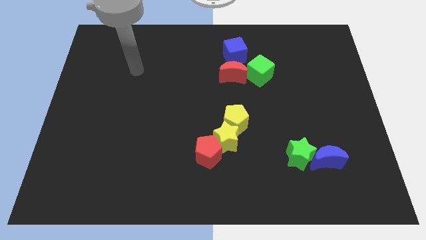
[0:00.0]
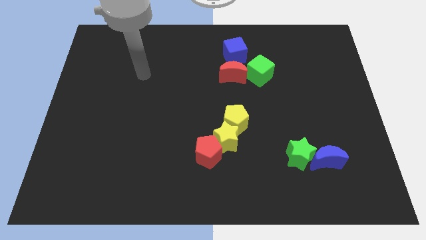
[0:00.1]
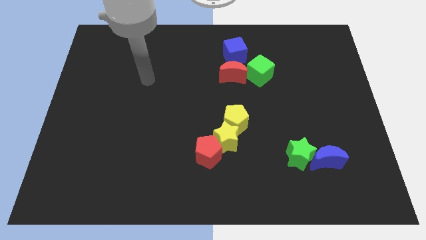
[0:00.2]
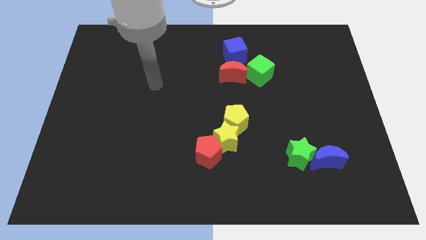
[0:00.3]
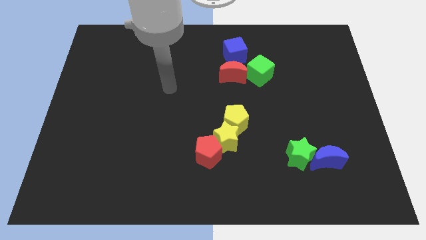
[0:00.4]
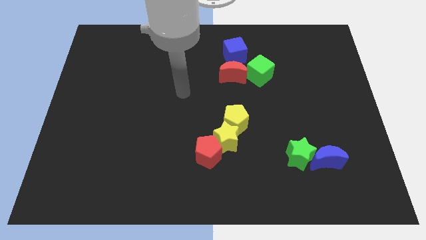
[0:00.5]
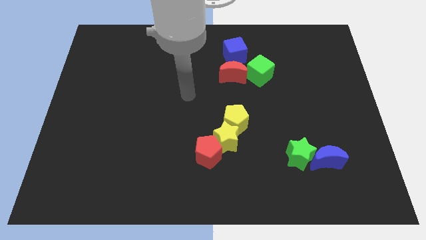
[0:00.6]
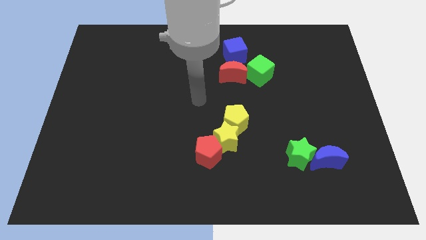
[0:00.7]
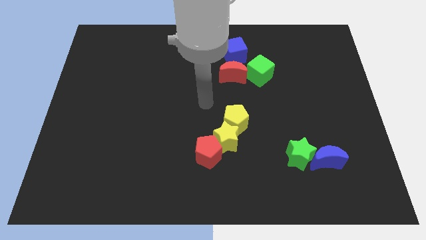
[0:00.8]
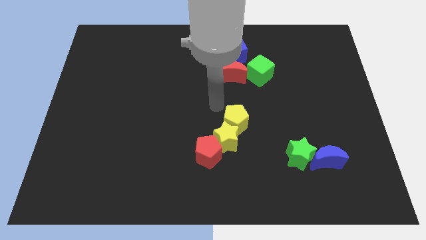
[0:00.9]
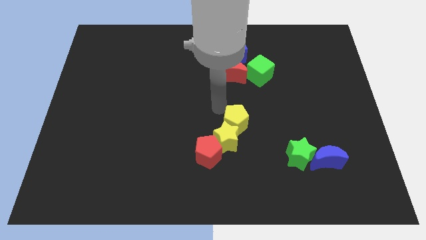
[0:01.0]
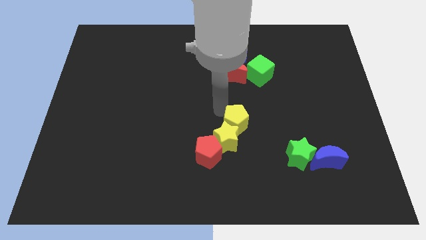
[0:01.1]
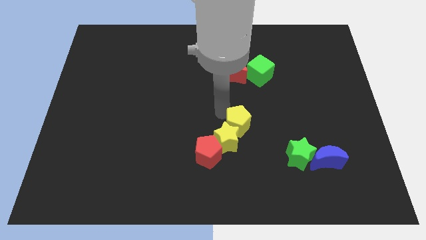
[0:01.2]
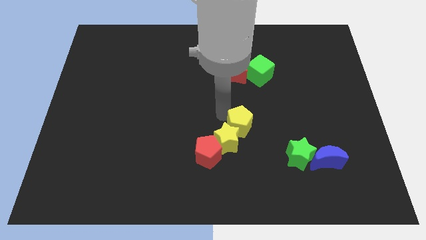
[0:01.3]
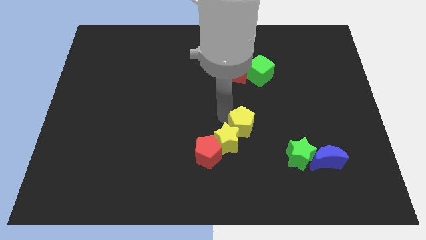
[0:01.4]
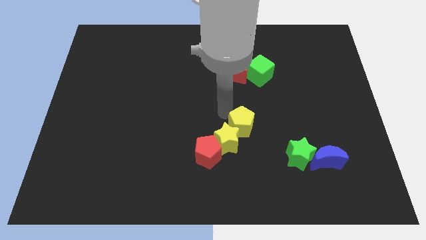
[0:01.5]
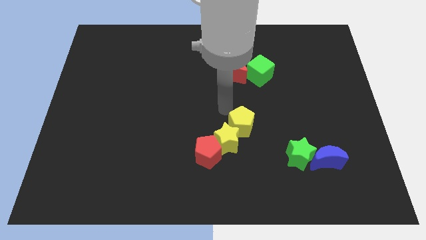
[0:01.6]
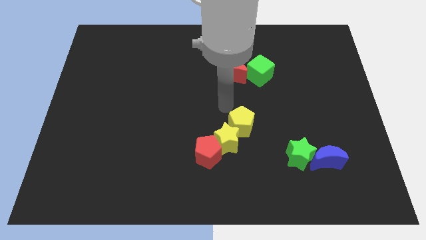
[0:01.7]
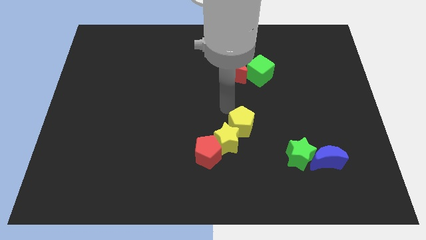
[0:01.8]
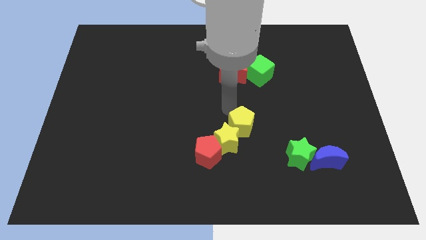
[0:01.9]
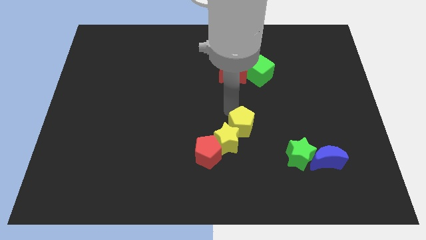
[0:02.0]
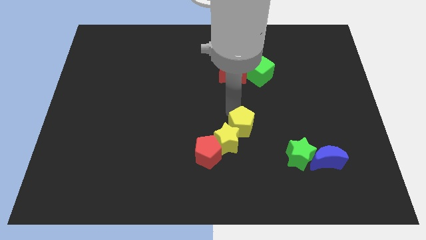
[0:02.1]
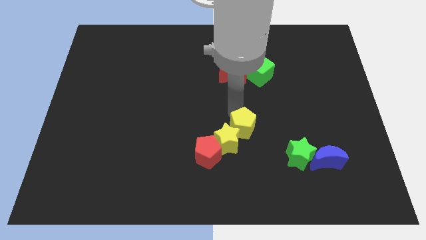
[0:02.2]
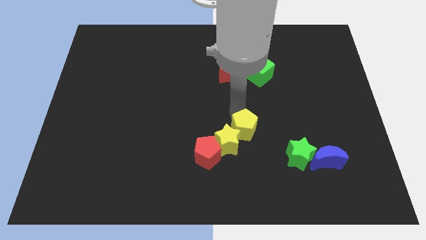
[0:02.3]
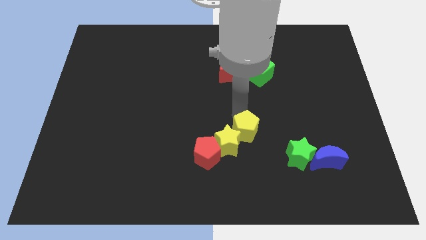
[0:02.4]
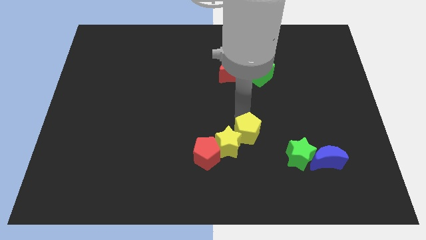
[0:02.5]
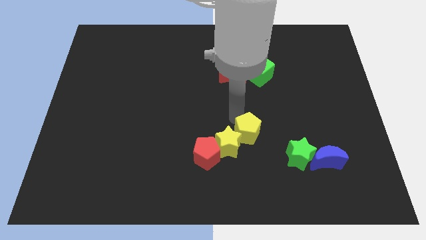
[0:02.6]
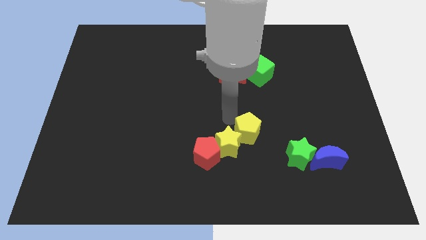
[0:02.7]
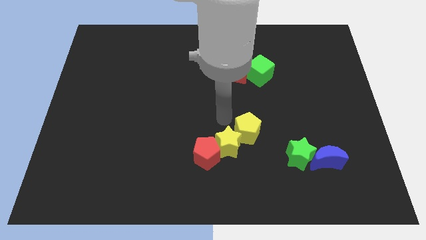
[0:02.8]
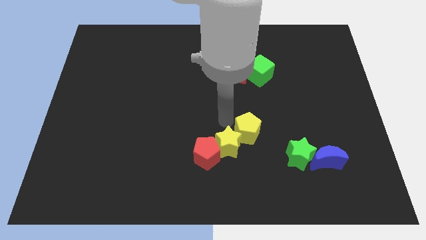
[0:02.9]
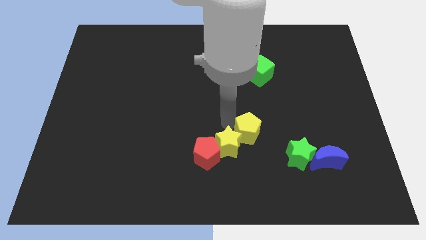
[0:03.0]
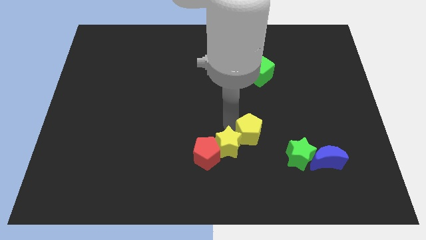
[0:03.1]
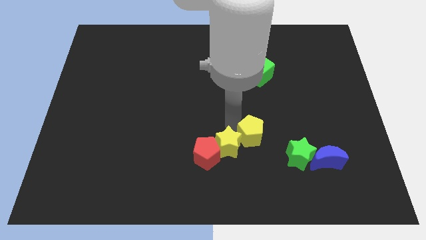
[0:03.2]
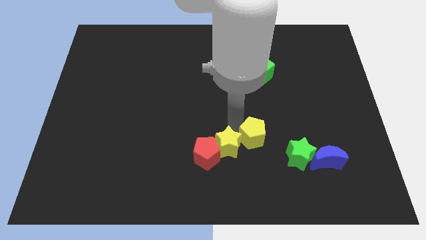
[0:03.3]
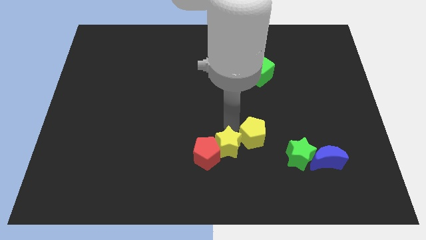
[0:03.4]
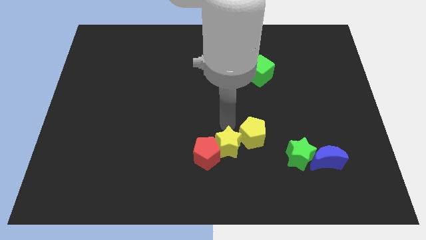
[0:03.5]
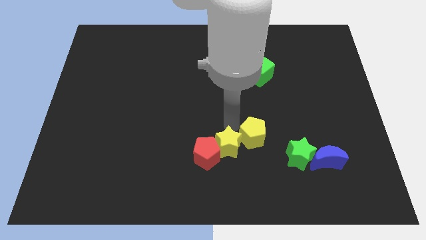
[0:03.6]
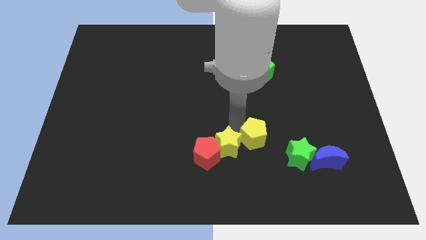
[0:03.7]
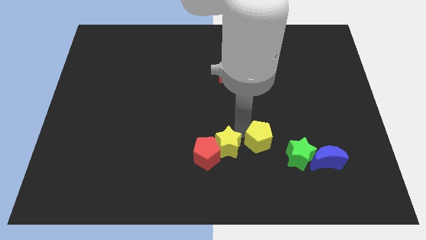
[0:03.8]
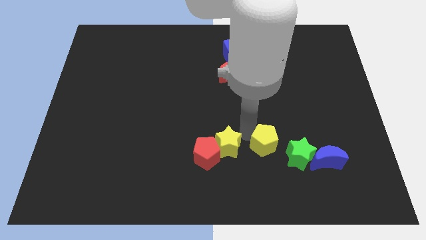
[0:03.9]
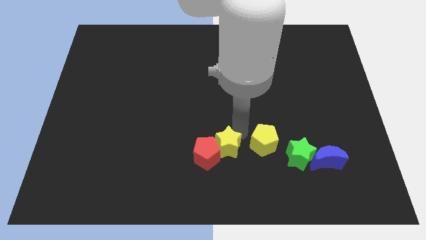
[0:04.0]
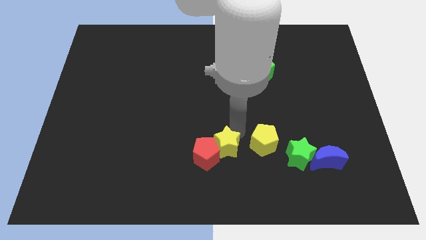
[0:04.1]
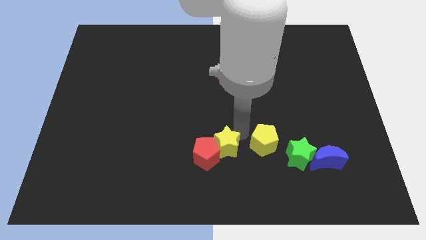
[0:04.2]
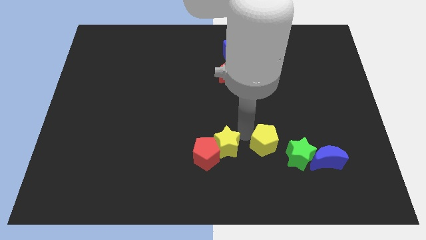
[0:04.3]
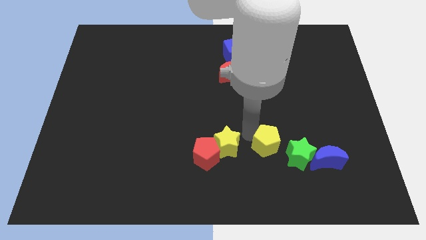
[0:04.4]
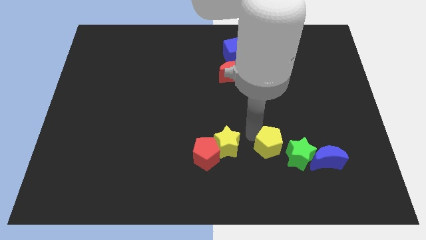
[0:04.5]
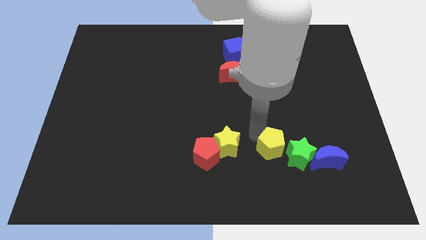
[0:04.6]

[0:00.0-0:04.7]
move the yellow pentagon towards the green star

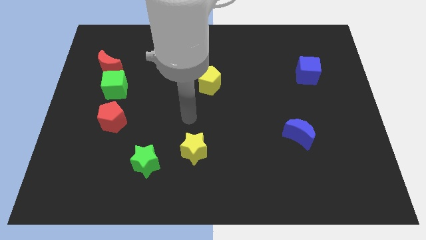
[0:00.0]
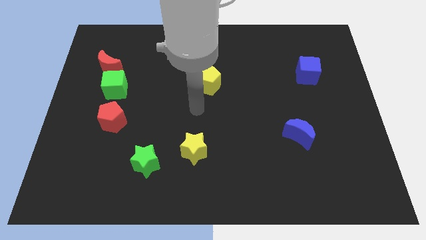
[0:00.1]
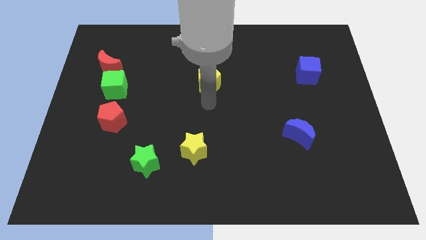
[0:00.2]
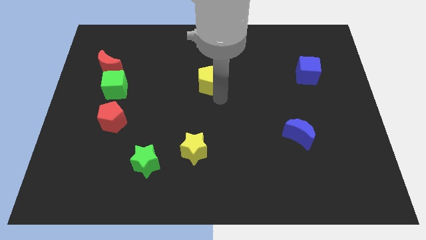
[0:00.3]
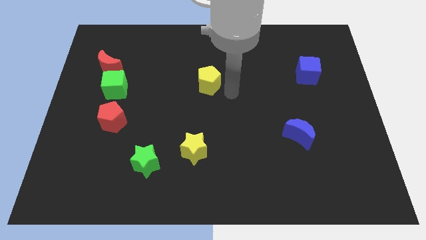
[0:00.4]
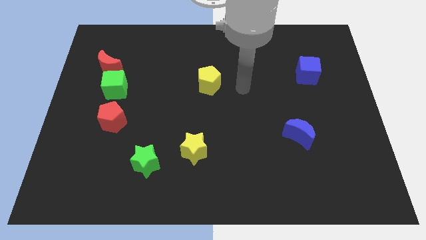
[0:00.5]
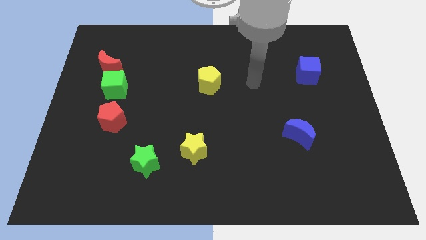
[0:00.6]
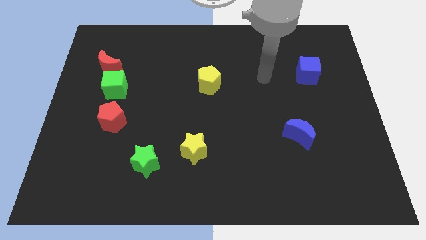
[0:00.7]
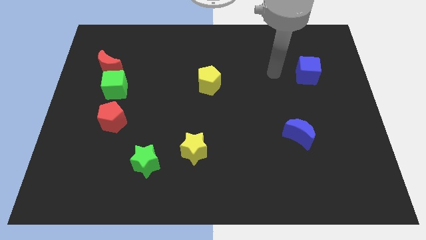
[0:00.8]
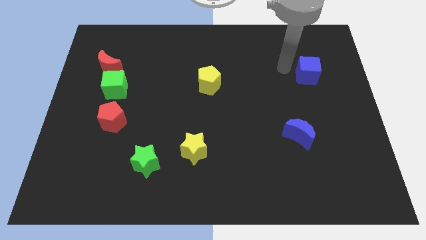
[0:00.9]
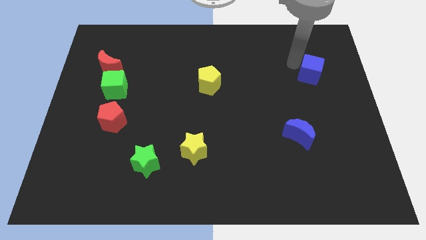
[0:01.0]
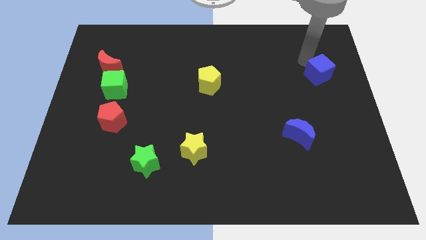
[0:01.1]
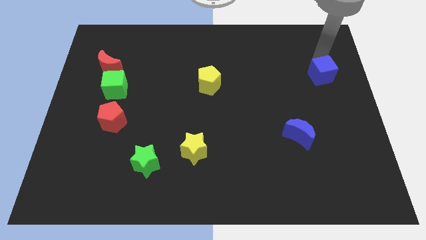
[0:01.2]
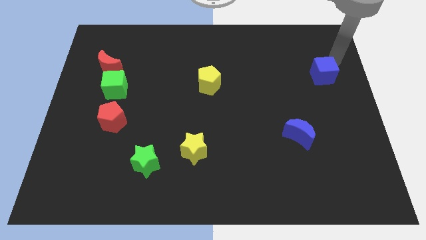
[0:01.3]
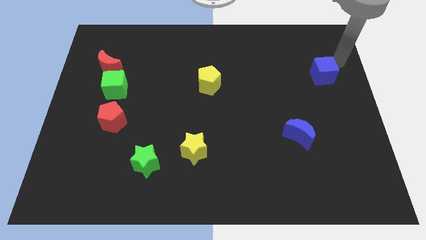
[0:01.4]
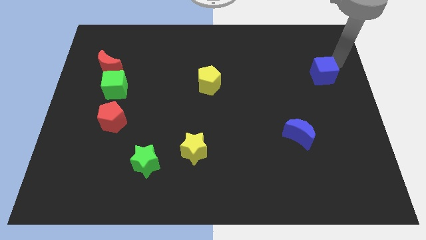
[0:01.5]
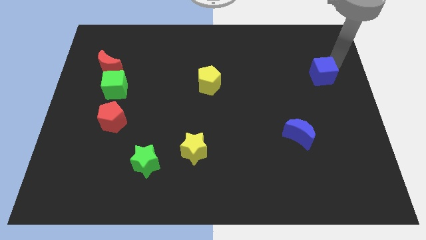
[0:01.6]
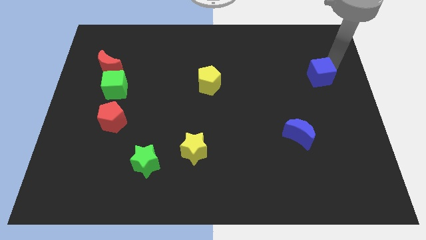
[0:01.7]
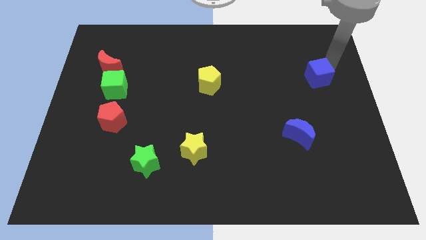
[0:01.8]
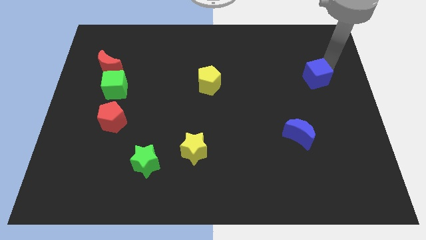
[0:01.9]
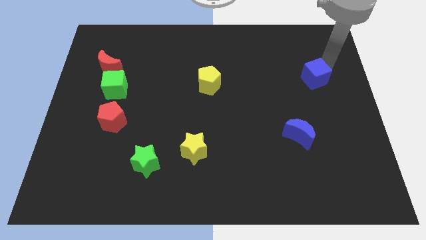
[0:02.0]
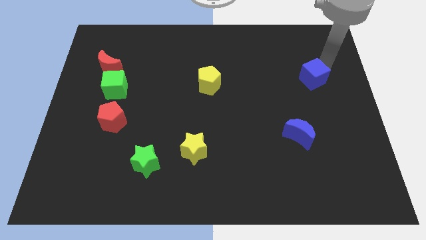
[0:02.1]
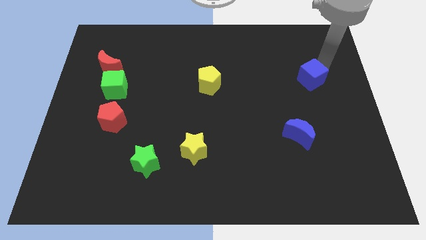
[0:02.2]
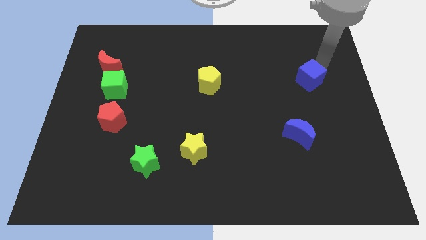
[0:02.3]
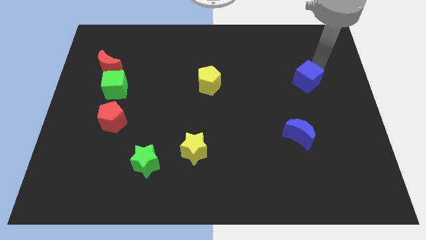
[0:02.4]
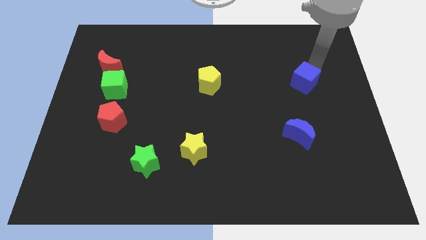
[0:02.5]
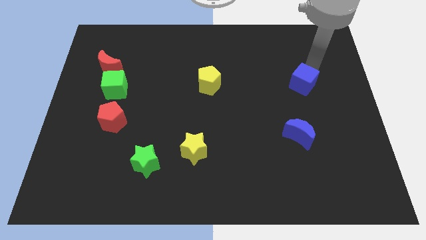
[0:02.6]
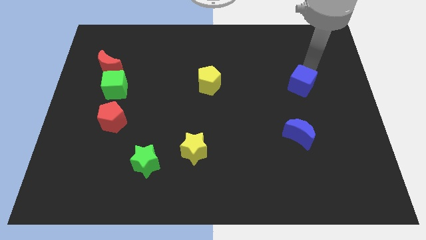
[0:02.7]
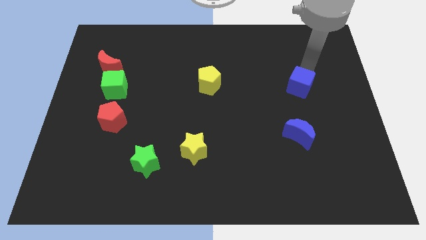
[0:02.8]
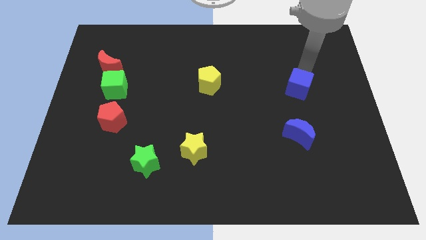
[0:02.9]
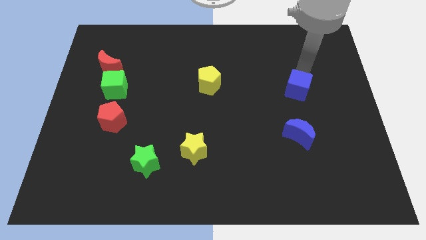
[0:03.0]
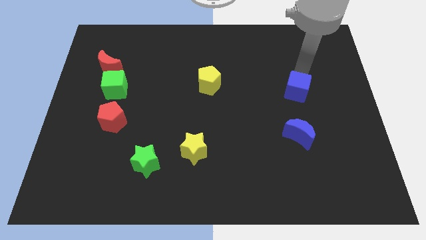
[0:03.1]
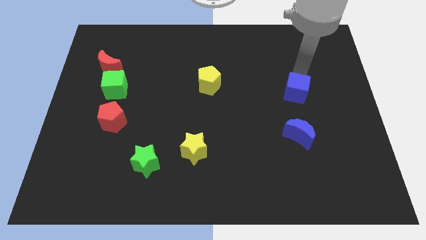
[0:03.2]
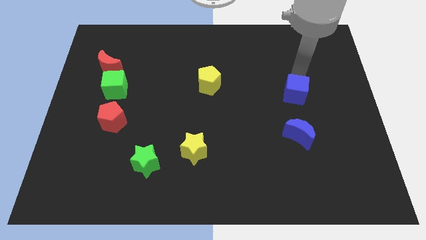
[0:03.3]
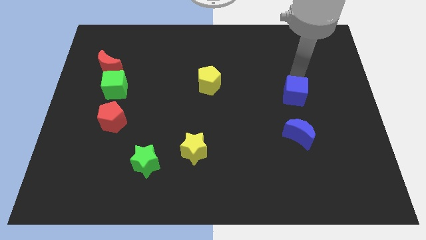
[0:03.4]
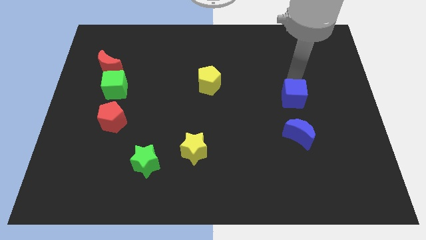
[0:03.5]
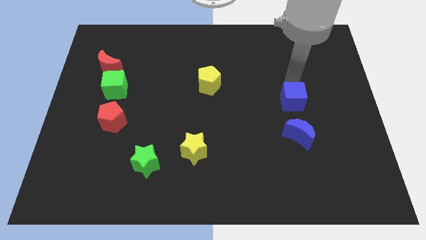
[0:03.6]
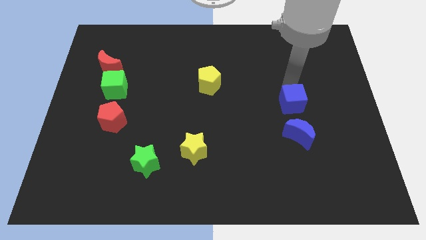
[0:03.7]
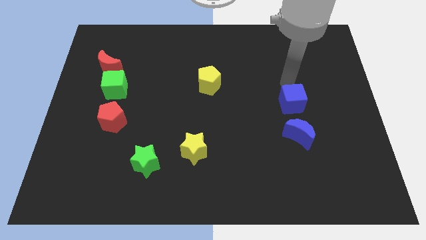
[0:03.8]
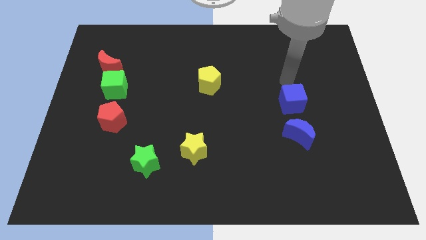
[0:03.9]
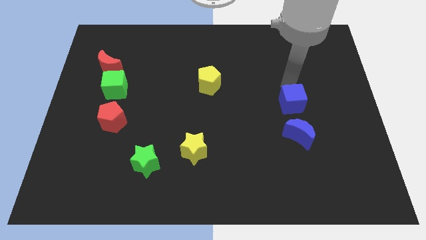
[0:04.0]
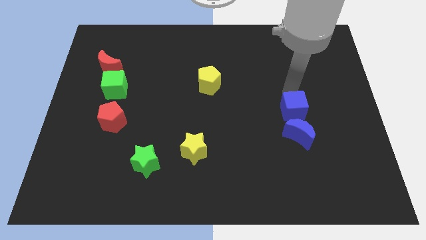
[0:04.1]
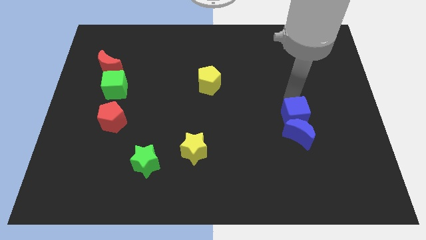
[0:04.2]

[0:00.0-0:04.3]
push the blue cube to the blue moon
